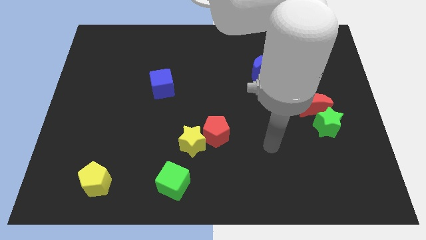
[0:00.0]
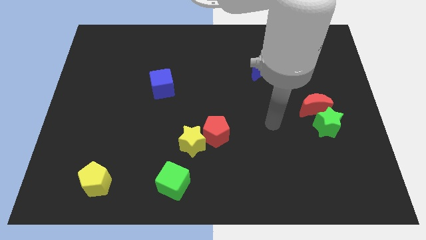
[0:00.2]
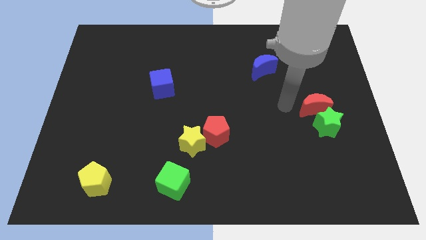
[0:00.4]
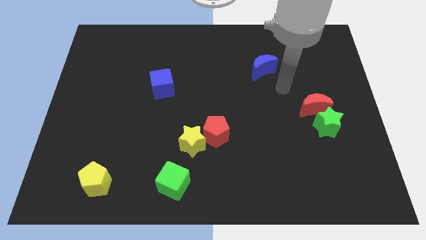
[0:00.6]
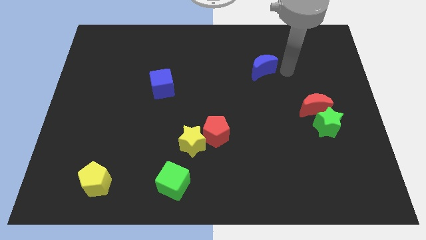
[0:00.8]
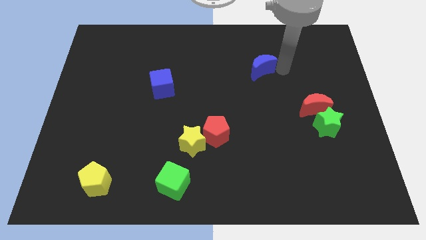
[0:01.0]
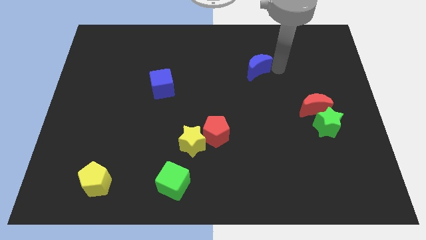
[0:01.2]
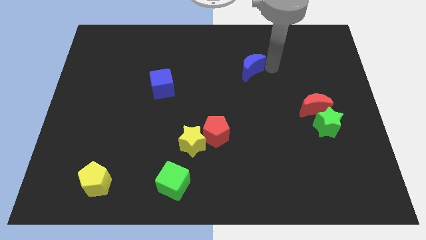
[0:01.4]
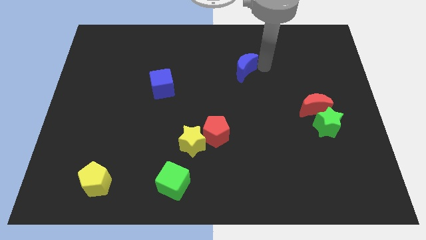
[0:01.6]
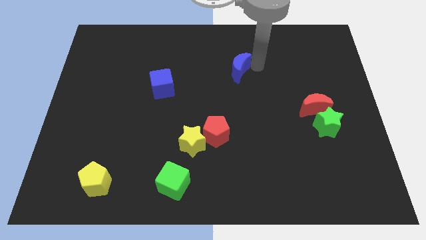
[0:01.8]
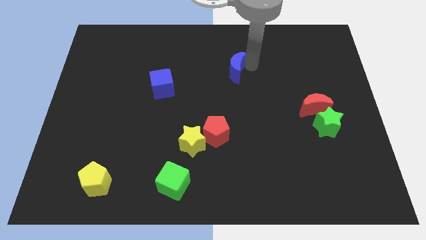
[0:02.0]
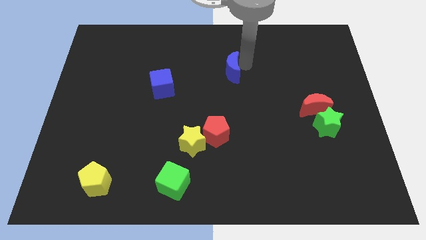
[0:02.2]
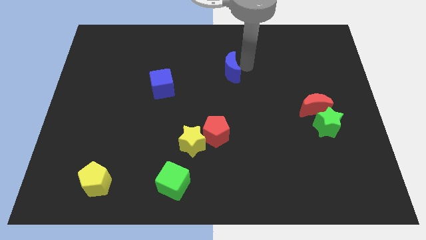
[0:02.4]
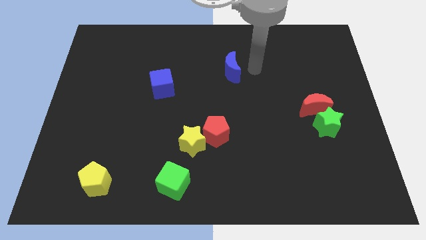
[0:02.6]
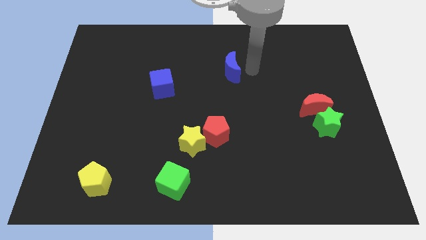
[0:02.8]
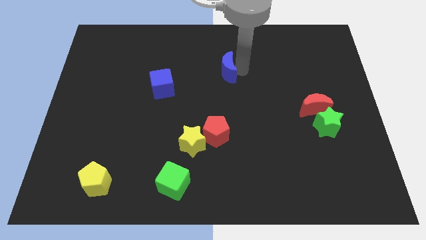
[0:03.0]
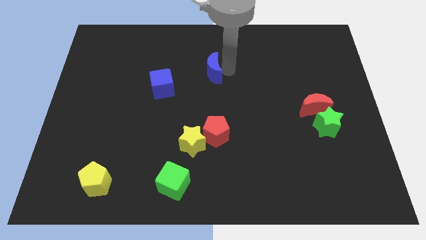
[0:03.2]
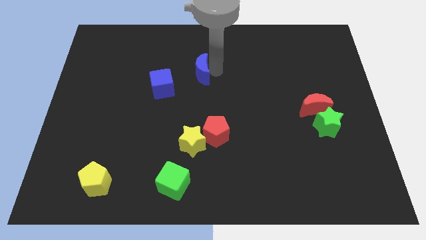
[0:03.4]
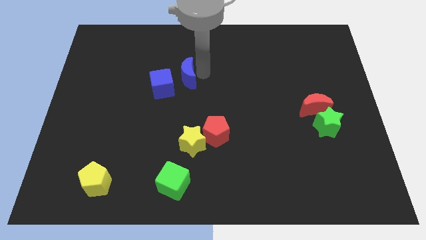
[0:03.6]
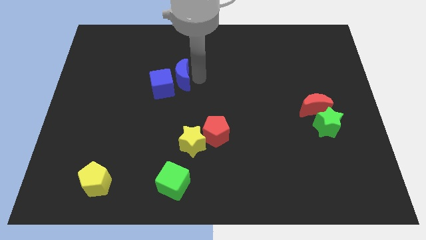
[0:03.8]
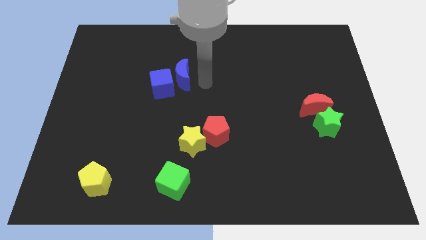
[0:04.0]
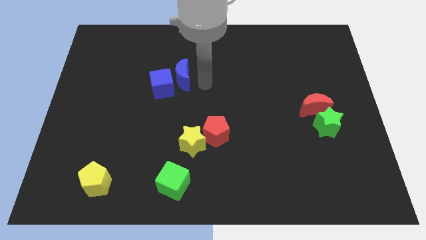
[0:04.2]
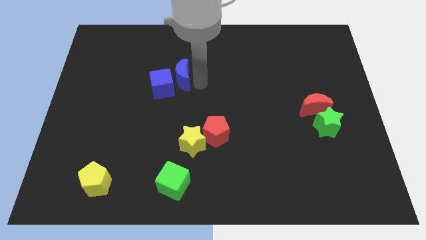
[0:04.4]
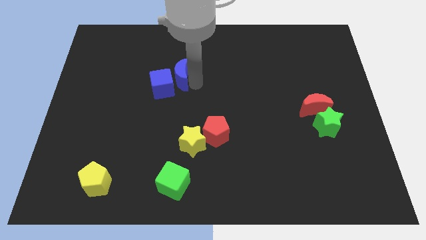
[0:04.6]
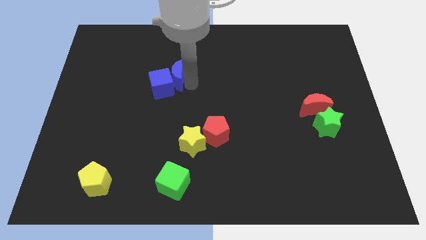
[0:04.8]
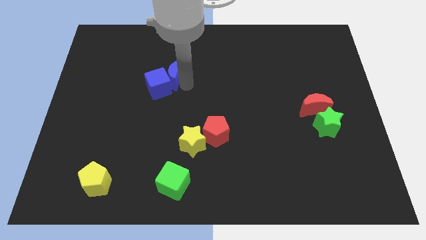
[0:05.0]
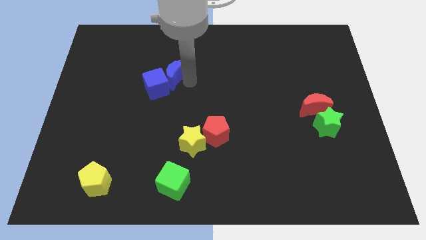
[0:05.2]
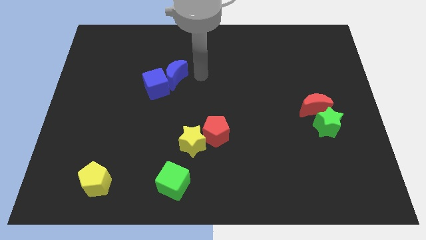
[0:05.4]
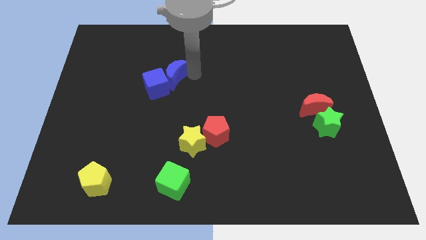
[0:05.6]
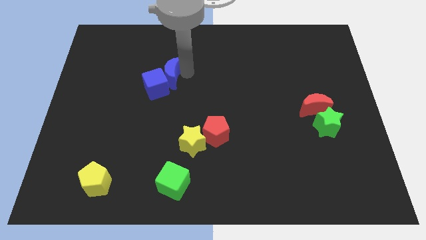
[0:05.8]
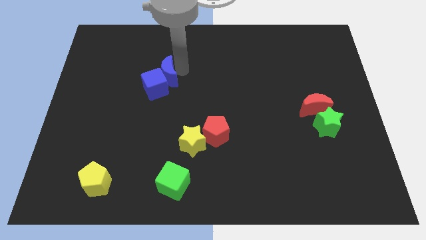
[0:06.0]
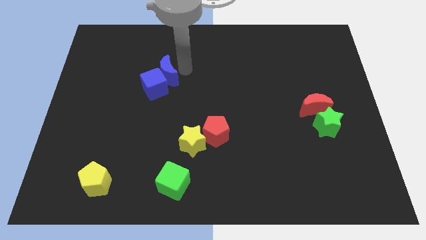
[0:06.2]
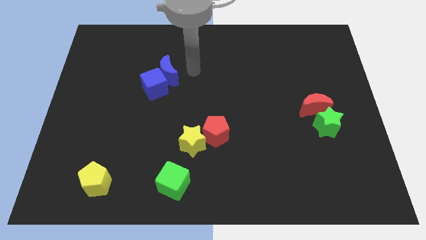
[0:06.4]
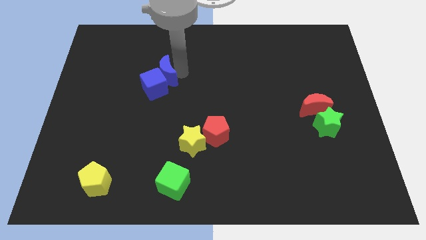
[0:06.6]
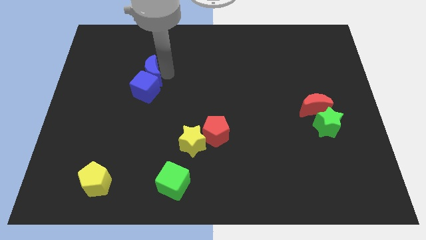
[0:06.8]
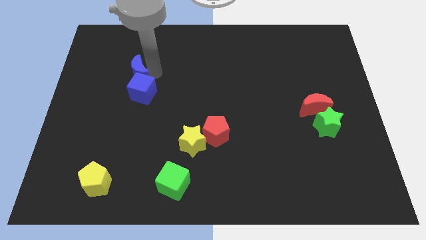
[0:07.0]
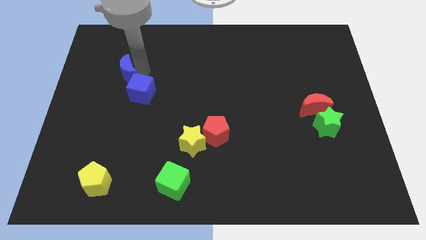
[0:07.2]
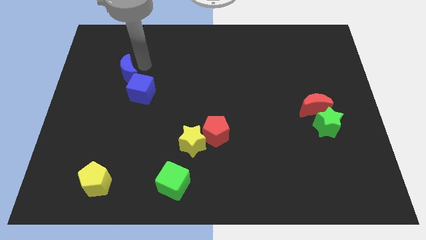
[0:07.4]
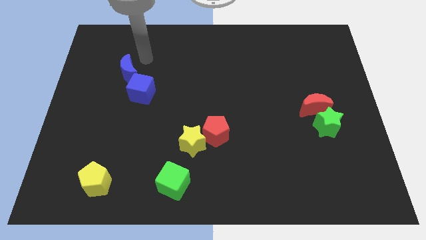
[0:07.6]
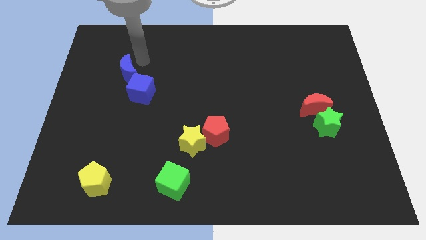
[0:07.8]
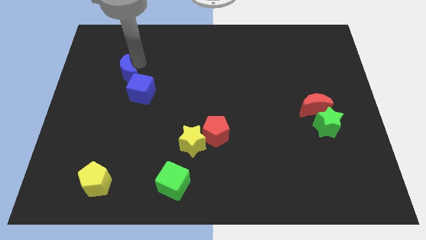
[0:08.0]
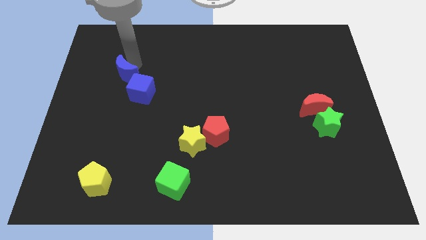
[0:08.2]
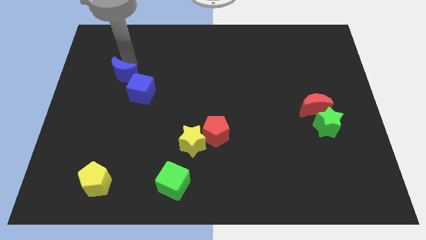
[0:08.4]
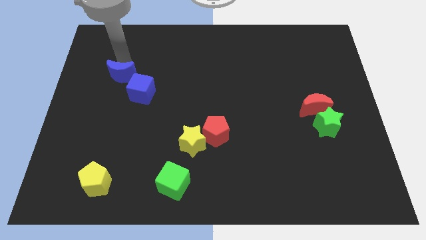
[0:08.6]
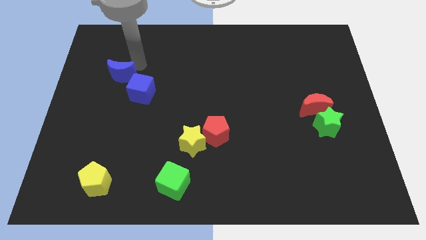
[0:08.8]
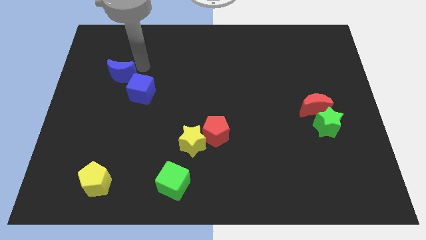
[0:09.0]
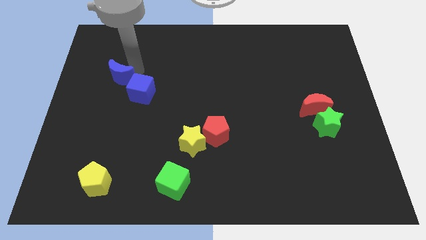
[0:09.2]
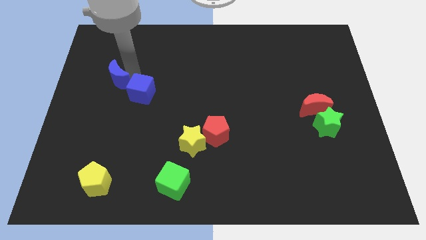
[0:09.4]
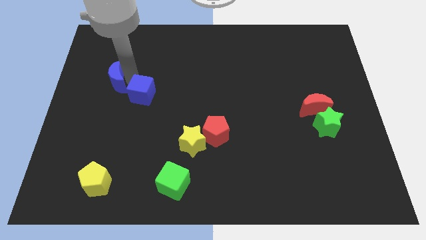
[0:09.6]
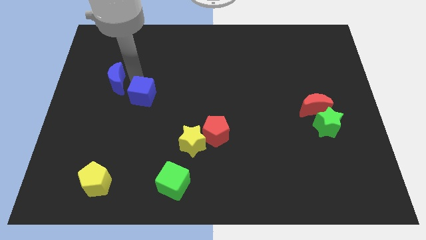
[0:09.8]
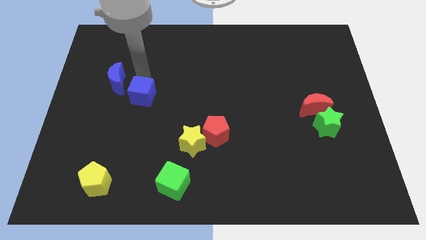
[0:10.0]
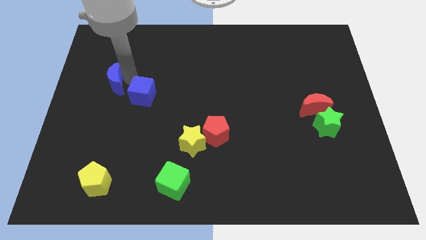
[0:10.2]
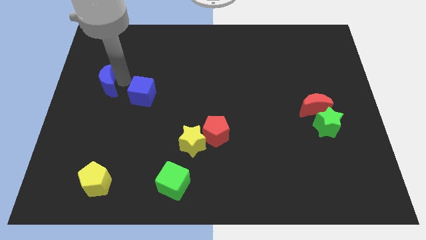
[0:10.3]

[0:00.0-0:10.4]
move the blue moon to the left side of the board
